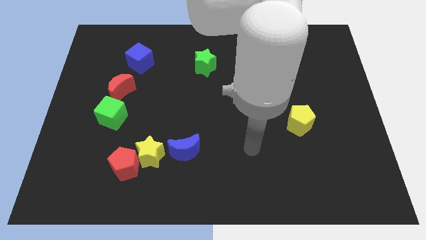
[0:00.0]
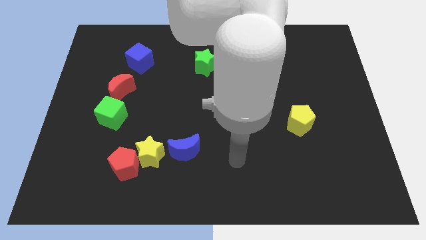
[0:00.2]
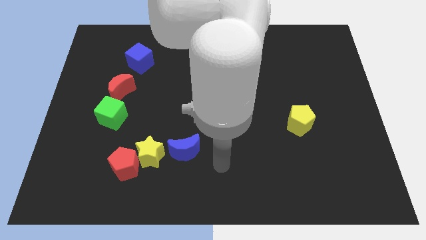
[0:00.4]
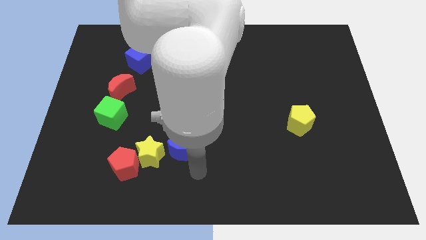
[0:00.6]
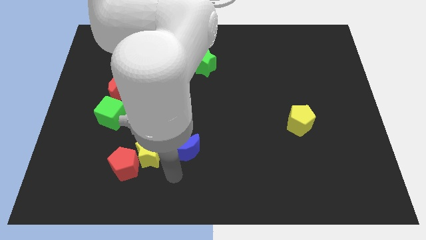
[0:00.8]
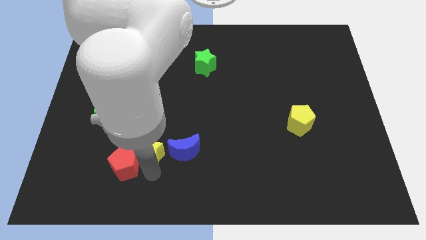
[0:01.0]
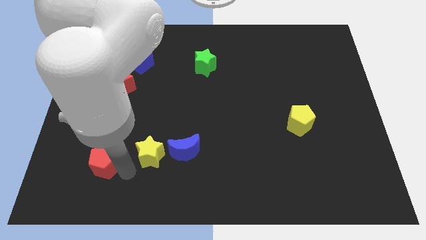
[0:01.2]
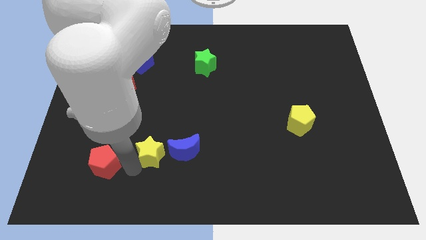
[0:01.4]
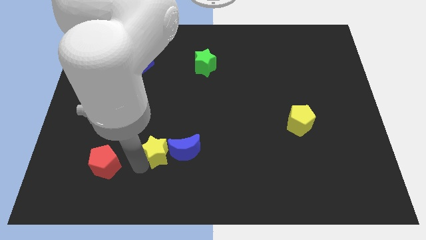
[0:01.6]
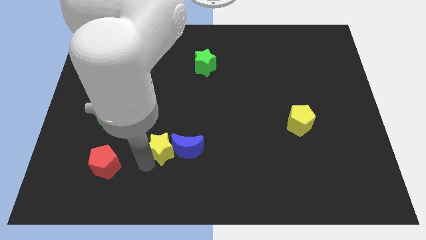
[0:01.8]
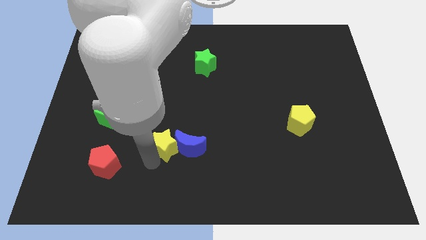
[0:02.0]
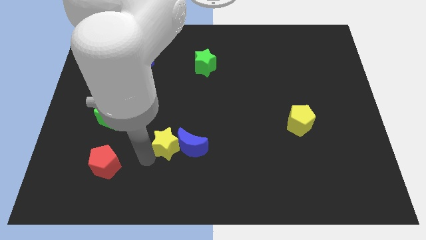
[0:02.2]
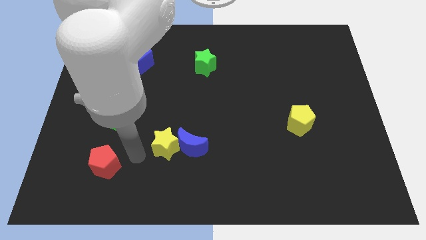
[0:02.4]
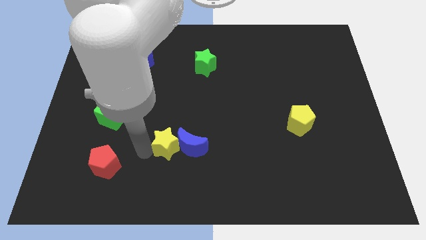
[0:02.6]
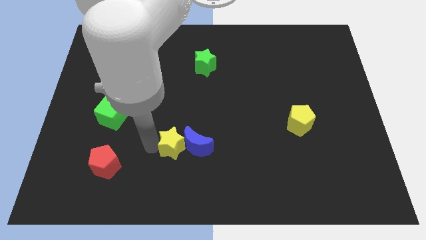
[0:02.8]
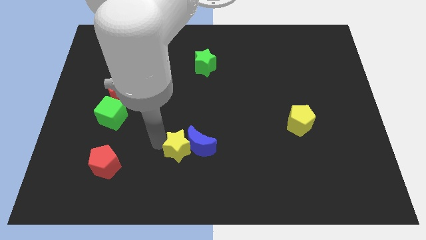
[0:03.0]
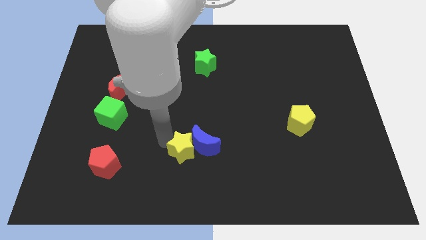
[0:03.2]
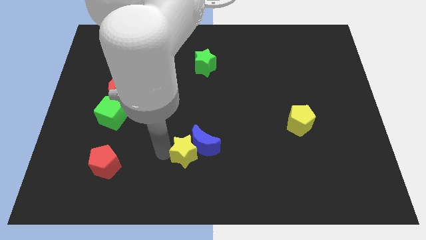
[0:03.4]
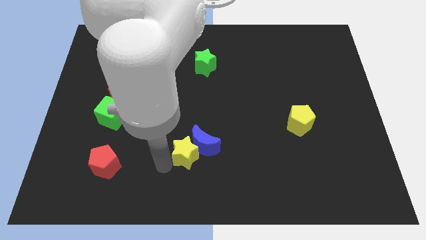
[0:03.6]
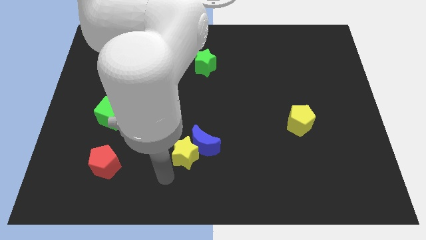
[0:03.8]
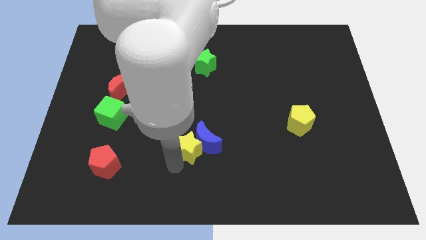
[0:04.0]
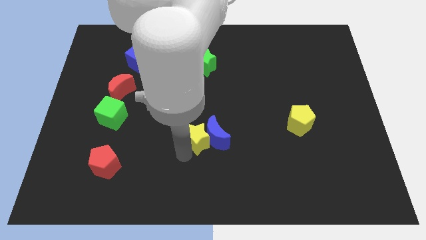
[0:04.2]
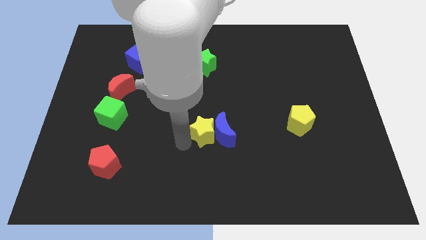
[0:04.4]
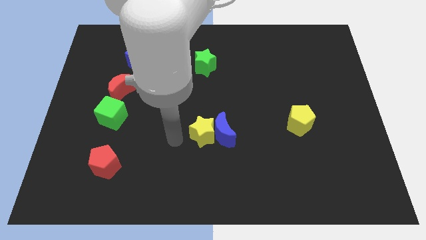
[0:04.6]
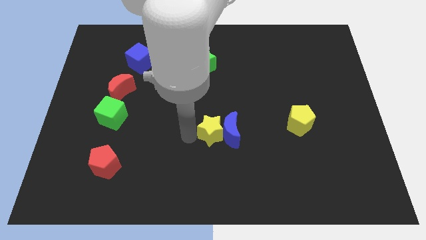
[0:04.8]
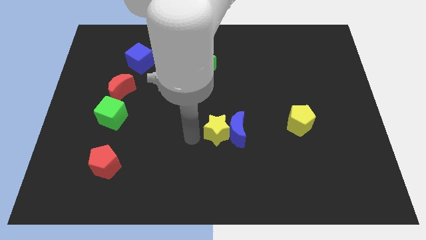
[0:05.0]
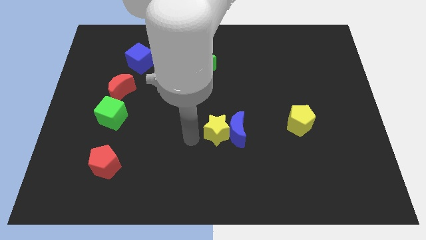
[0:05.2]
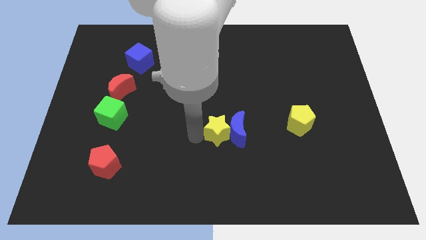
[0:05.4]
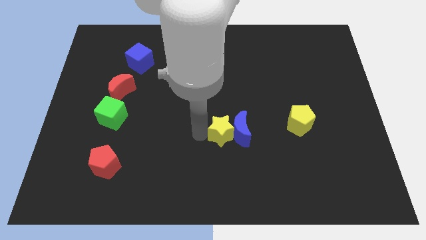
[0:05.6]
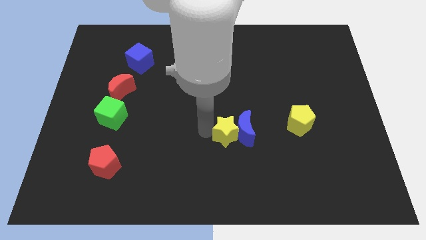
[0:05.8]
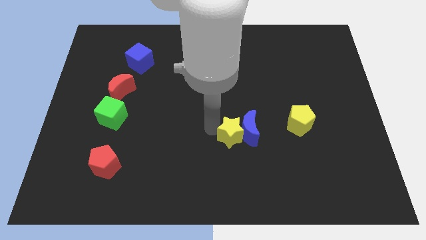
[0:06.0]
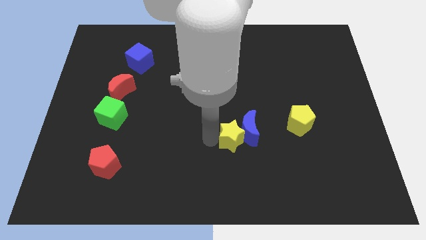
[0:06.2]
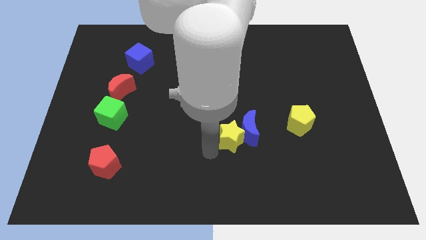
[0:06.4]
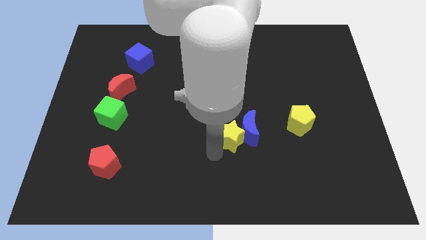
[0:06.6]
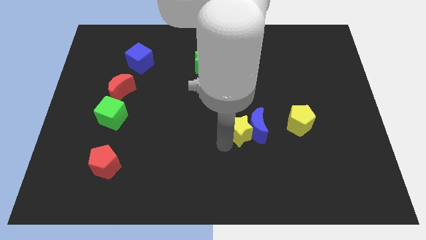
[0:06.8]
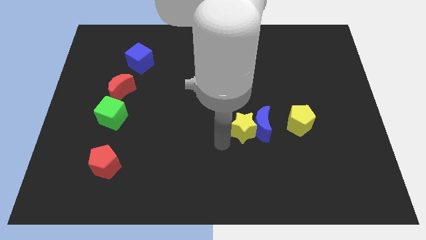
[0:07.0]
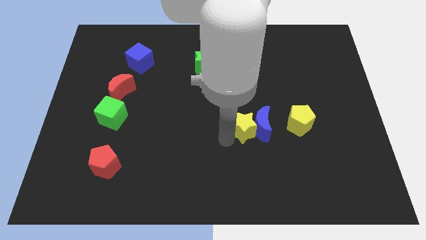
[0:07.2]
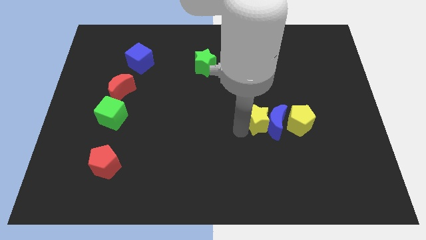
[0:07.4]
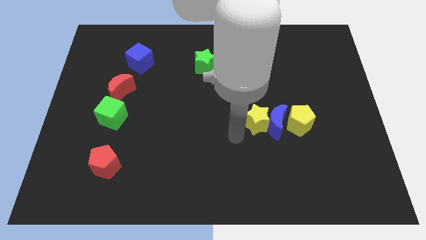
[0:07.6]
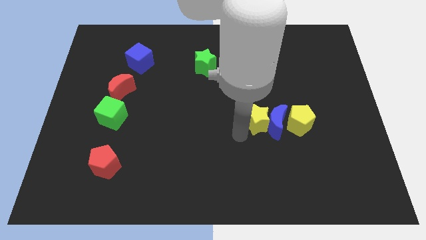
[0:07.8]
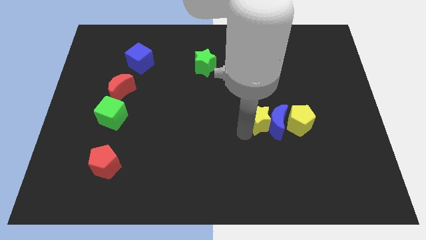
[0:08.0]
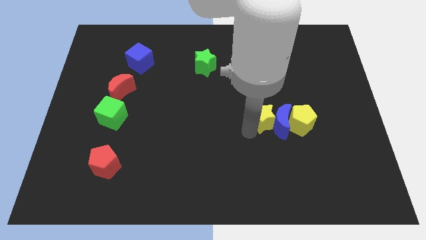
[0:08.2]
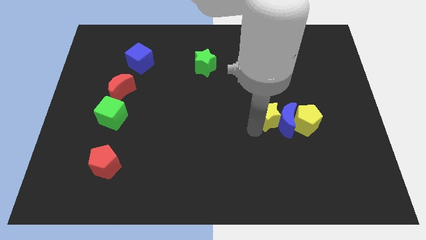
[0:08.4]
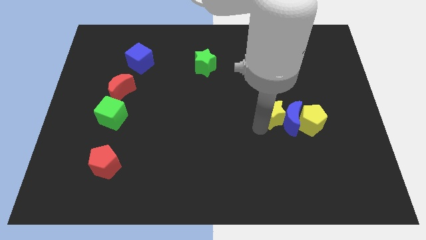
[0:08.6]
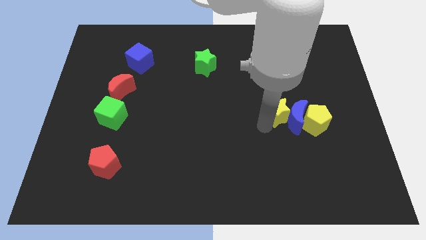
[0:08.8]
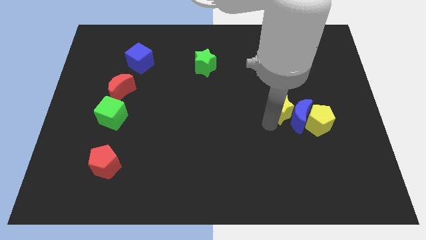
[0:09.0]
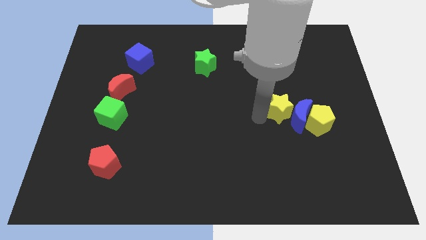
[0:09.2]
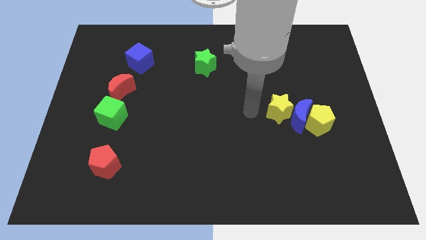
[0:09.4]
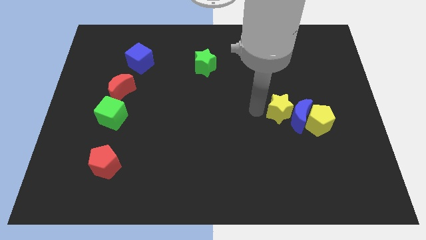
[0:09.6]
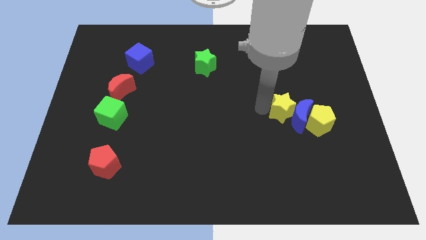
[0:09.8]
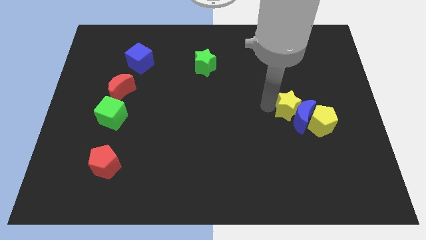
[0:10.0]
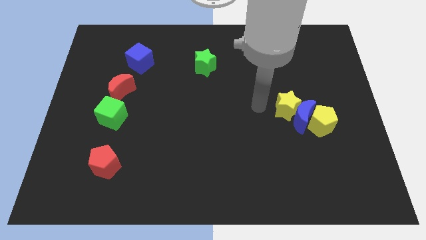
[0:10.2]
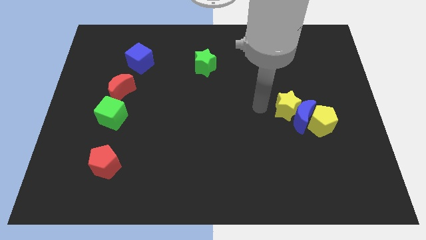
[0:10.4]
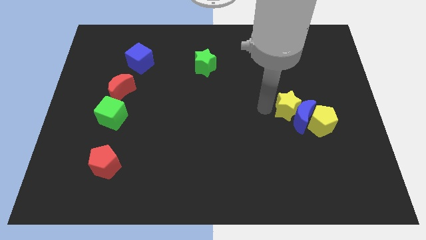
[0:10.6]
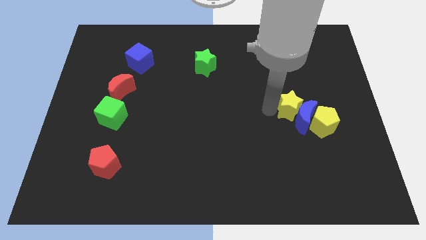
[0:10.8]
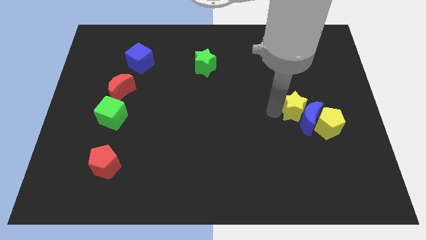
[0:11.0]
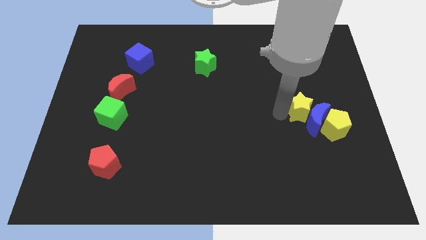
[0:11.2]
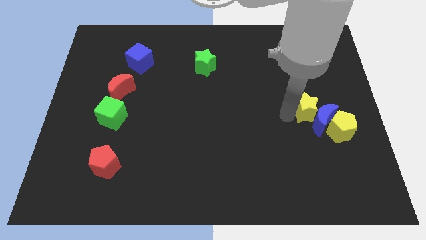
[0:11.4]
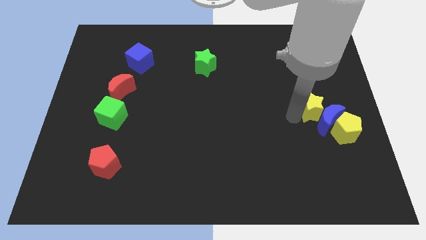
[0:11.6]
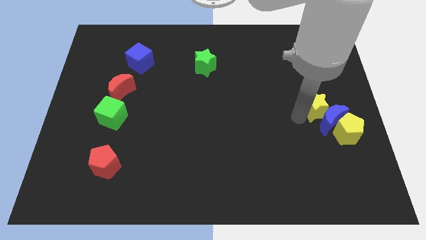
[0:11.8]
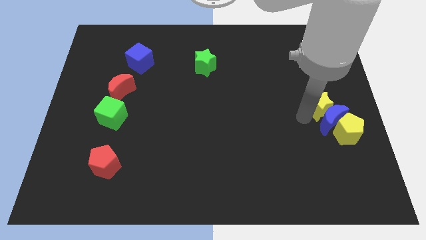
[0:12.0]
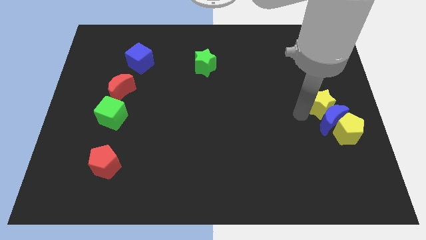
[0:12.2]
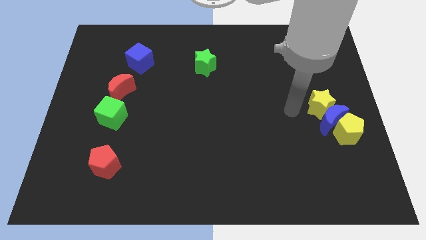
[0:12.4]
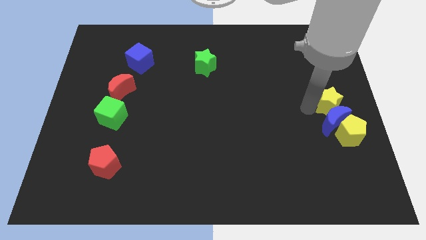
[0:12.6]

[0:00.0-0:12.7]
put the yellow star to the right side
